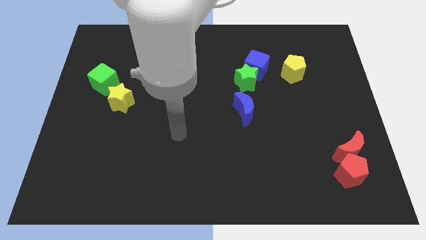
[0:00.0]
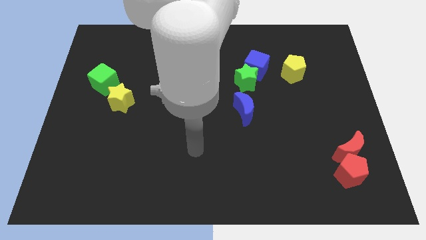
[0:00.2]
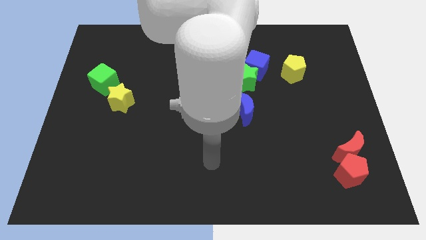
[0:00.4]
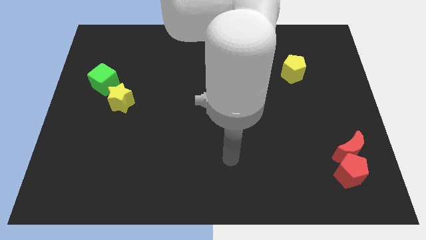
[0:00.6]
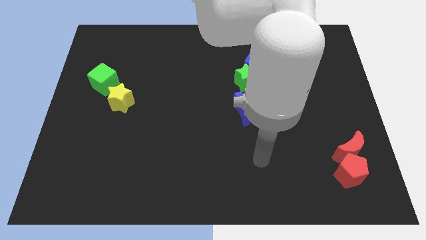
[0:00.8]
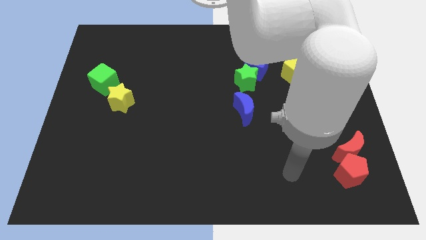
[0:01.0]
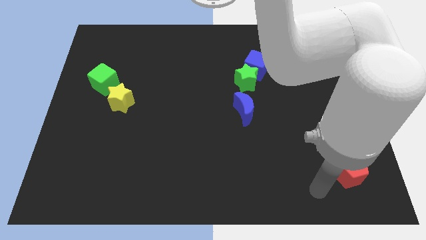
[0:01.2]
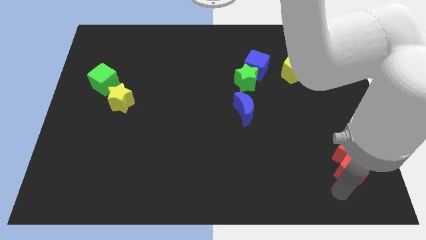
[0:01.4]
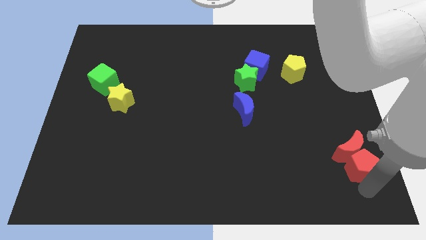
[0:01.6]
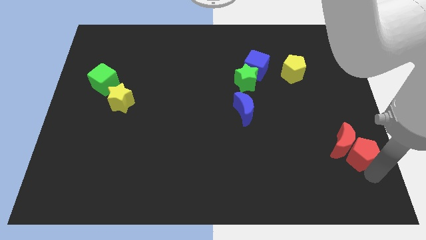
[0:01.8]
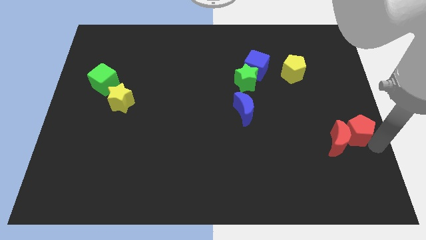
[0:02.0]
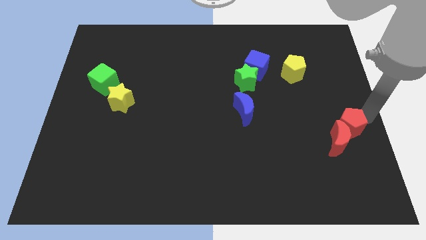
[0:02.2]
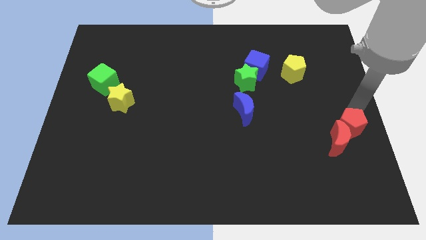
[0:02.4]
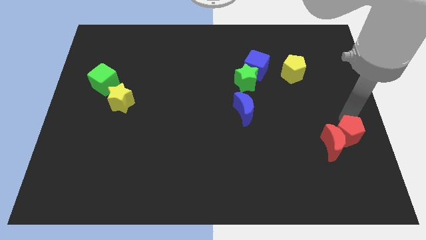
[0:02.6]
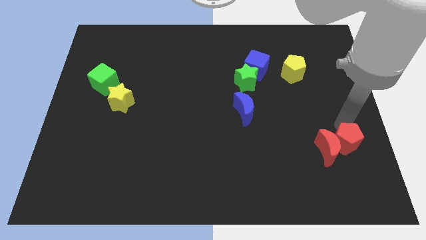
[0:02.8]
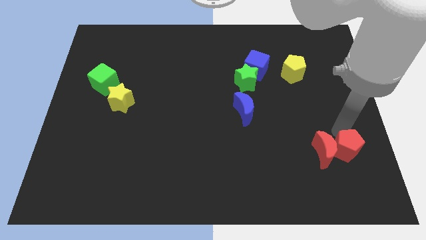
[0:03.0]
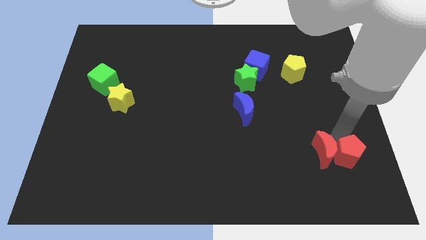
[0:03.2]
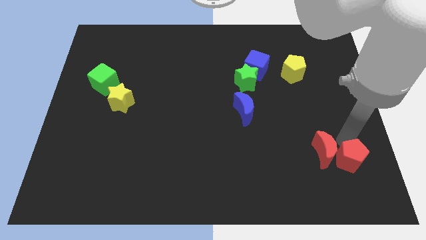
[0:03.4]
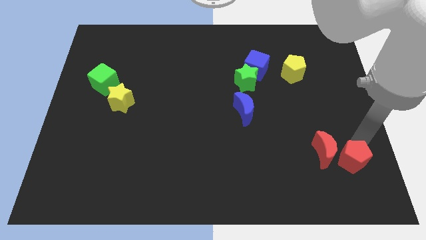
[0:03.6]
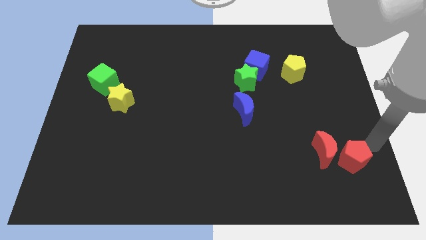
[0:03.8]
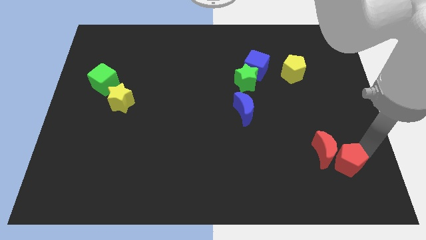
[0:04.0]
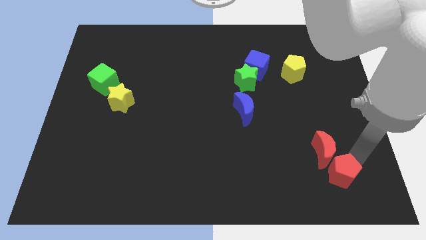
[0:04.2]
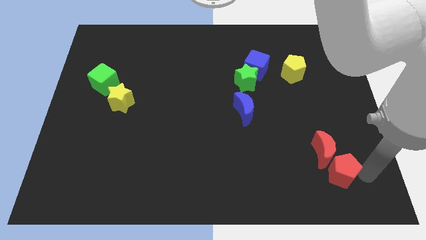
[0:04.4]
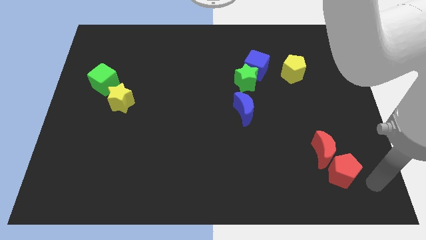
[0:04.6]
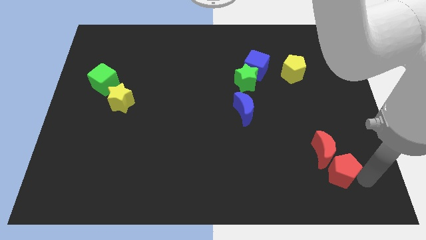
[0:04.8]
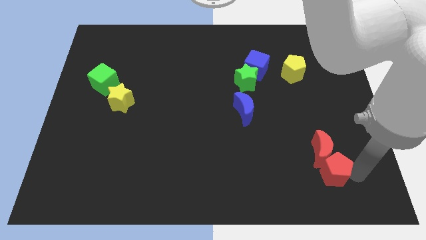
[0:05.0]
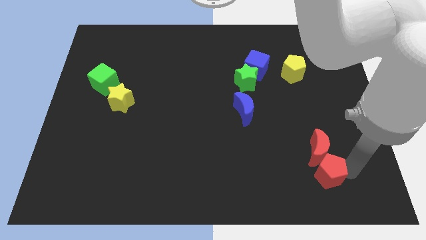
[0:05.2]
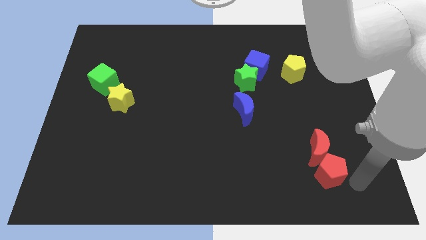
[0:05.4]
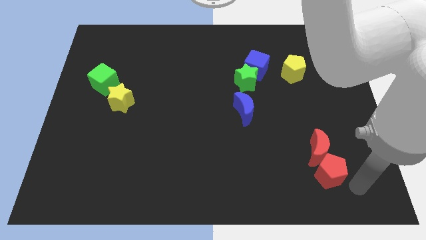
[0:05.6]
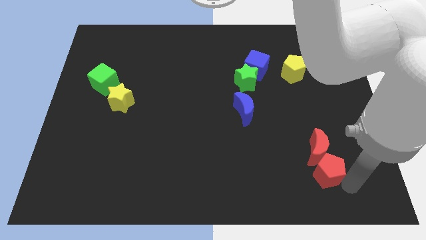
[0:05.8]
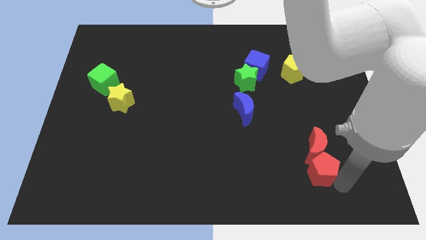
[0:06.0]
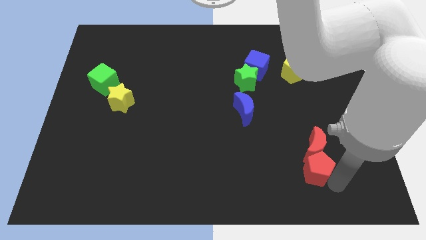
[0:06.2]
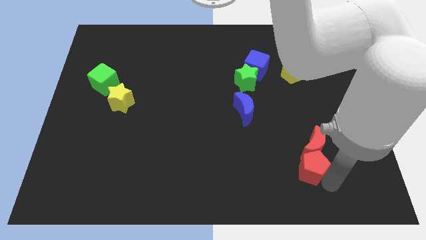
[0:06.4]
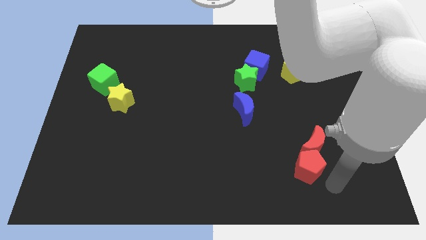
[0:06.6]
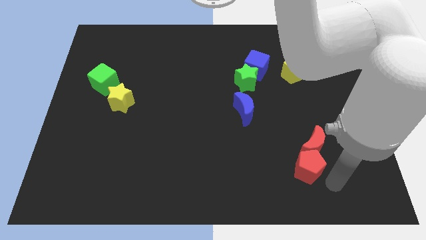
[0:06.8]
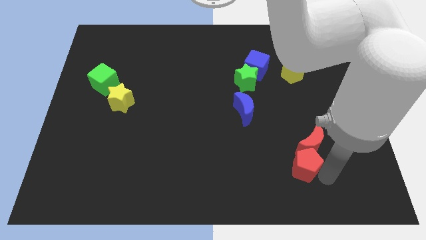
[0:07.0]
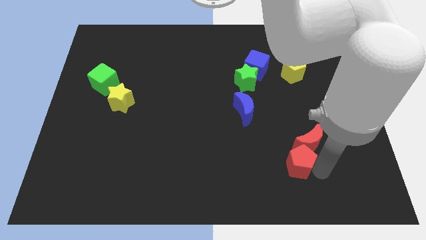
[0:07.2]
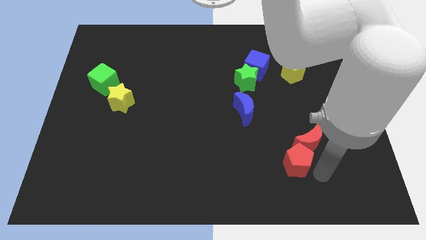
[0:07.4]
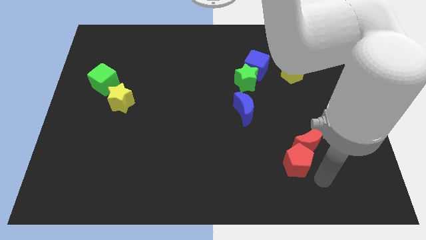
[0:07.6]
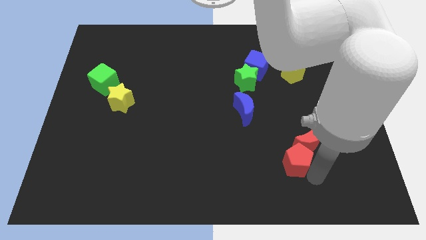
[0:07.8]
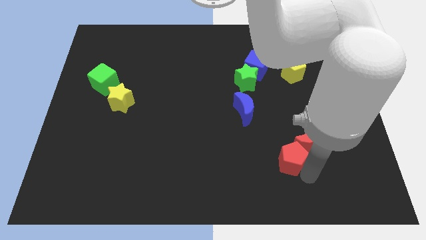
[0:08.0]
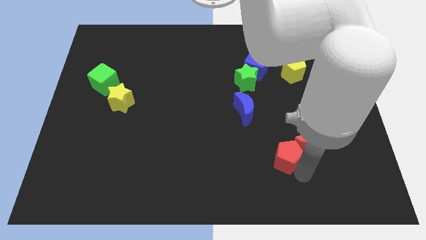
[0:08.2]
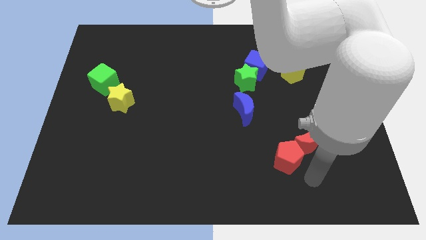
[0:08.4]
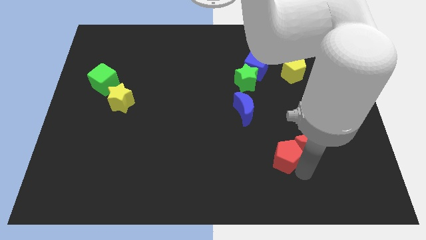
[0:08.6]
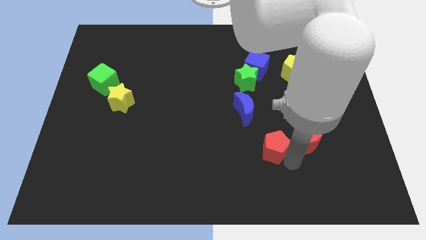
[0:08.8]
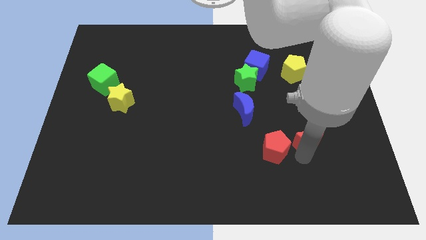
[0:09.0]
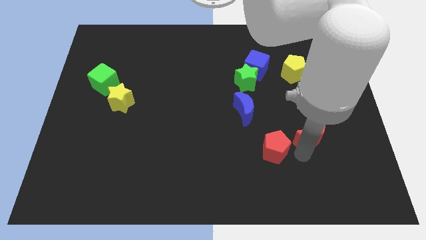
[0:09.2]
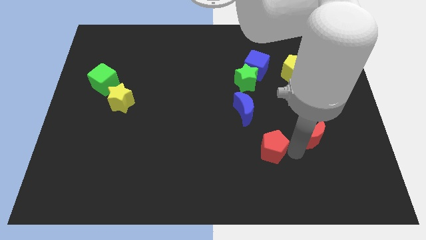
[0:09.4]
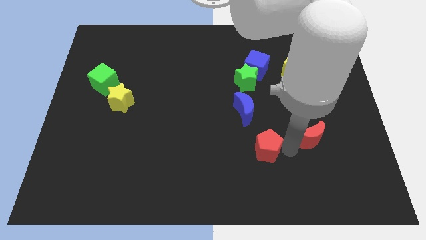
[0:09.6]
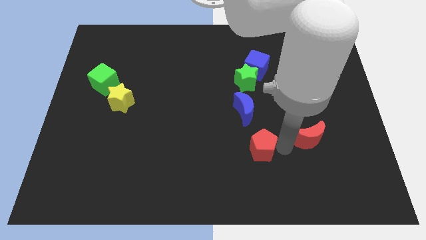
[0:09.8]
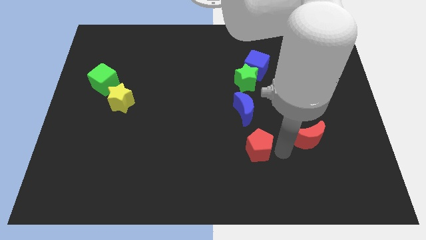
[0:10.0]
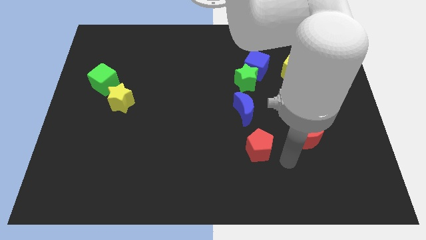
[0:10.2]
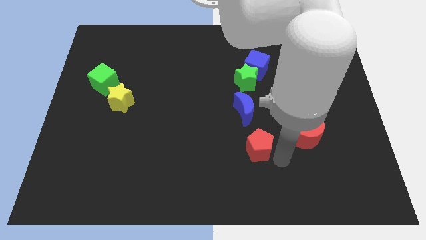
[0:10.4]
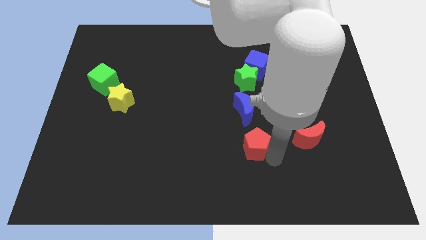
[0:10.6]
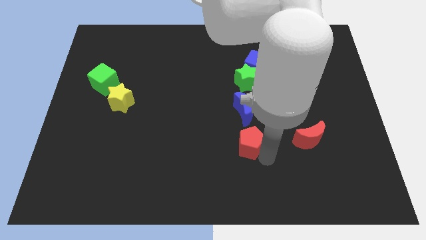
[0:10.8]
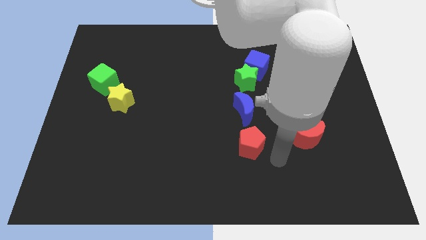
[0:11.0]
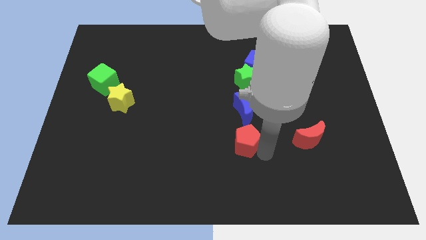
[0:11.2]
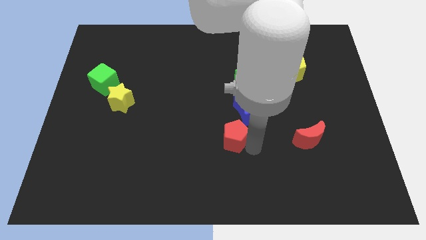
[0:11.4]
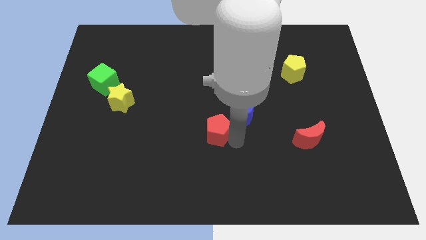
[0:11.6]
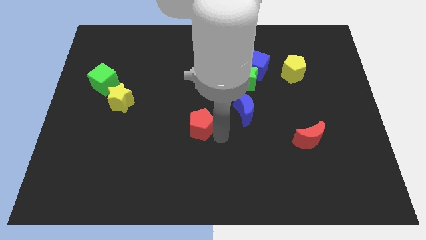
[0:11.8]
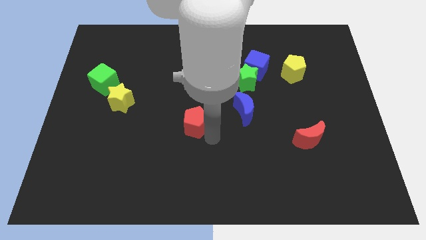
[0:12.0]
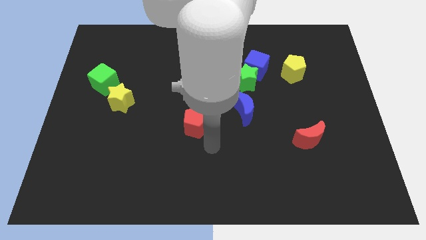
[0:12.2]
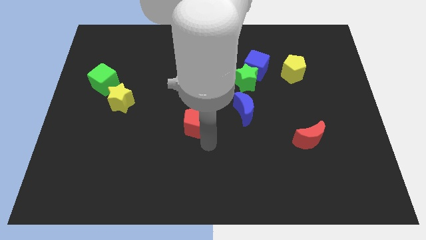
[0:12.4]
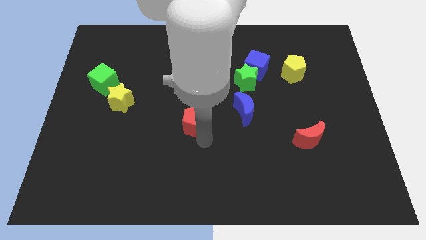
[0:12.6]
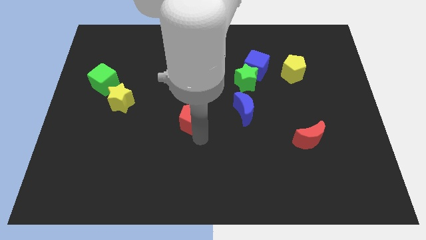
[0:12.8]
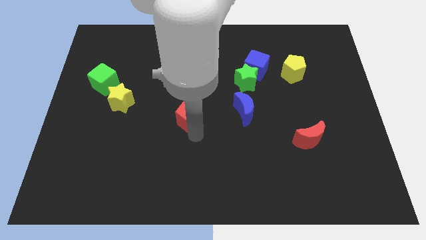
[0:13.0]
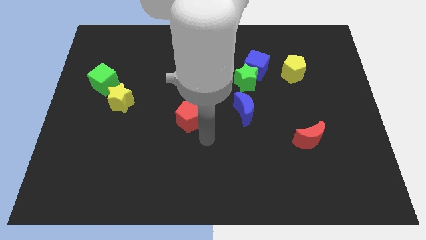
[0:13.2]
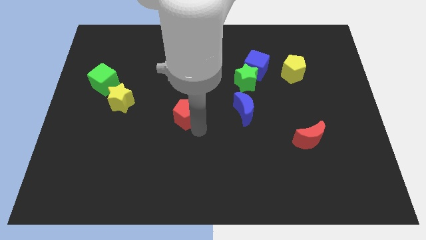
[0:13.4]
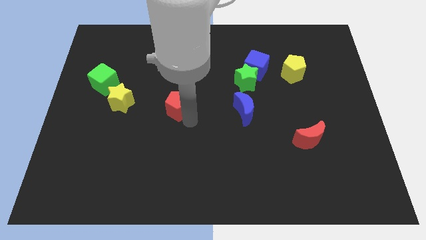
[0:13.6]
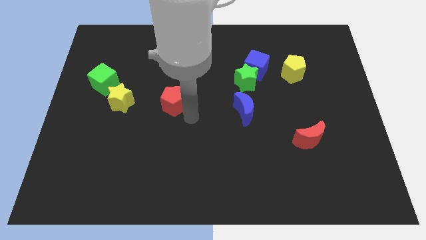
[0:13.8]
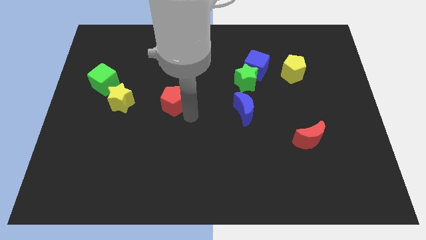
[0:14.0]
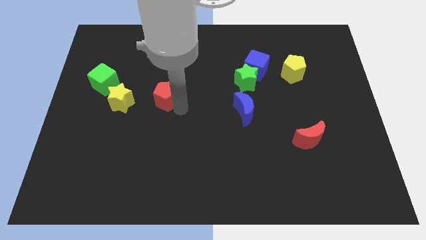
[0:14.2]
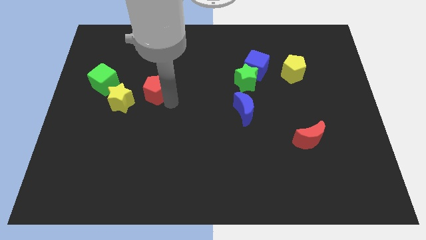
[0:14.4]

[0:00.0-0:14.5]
push the red pentagon diagonally up and to the right of the yellow star
